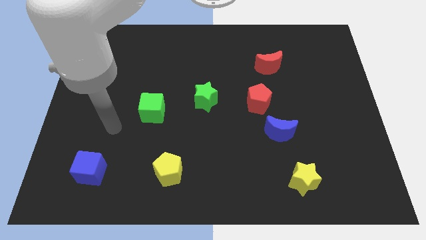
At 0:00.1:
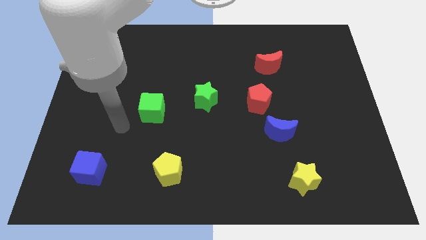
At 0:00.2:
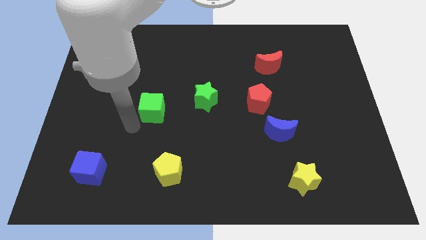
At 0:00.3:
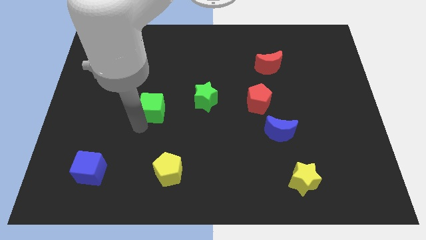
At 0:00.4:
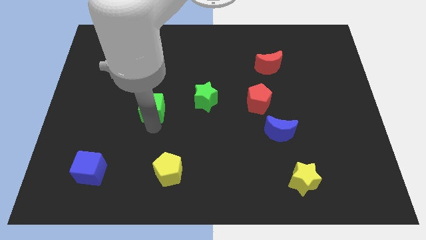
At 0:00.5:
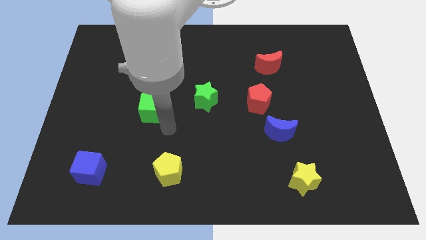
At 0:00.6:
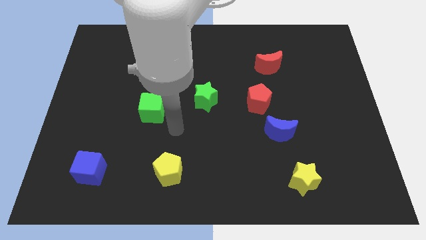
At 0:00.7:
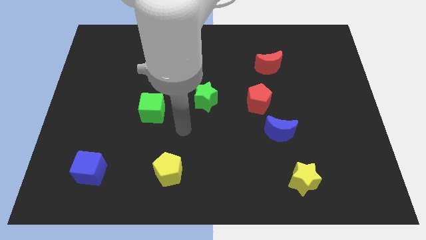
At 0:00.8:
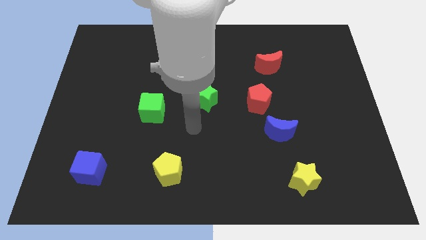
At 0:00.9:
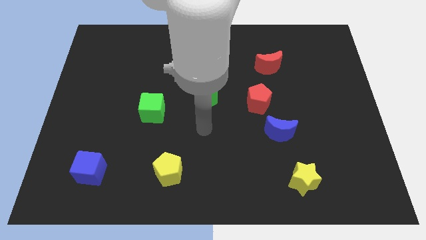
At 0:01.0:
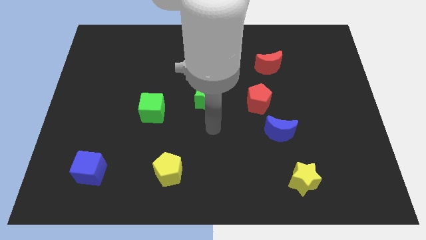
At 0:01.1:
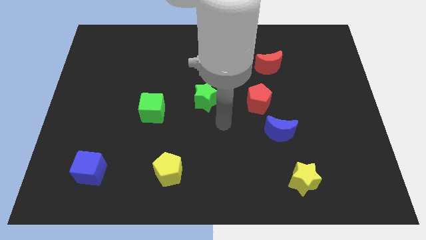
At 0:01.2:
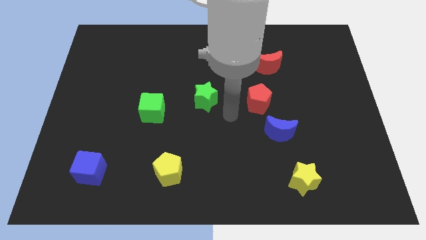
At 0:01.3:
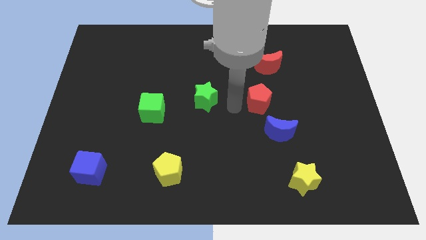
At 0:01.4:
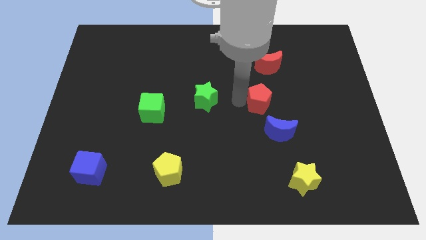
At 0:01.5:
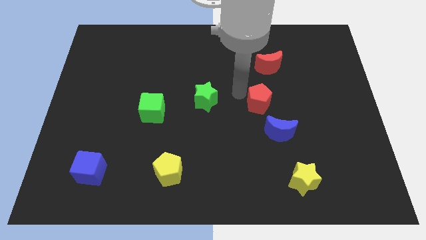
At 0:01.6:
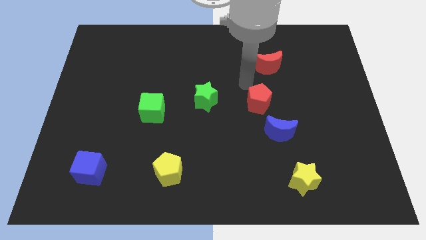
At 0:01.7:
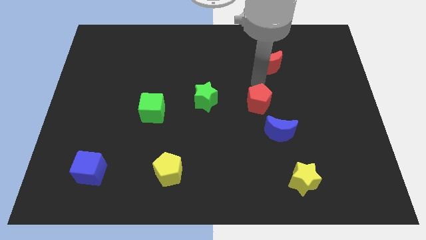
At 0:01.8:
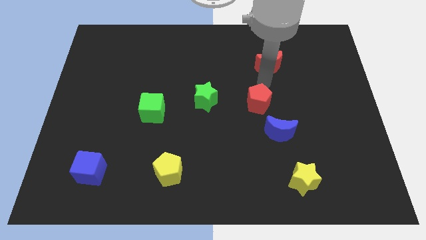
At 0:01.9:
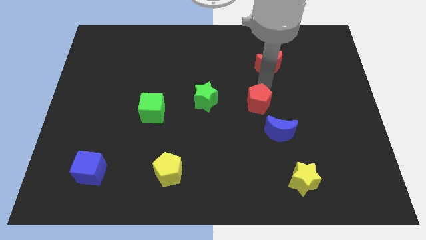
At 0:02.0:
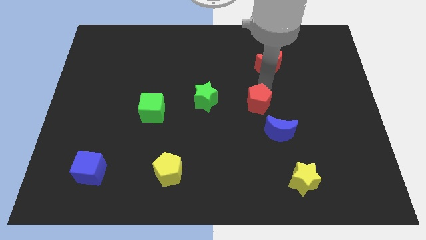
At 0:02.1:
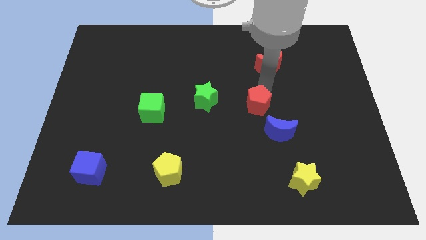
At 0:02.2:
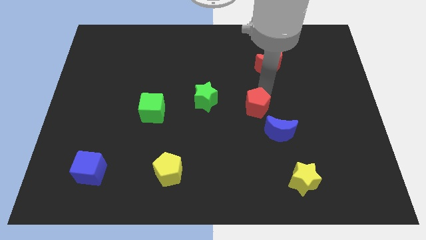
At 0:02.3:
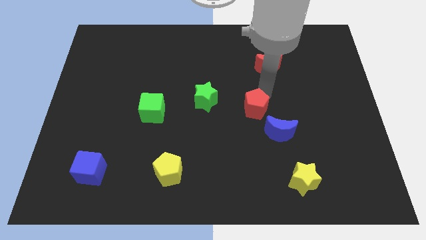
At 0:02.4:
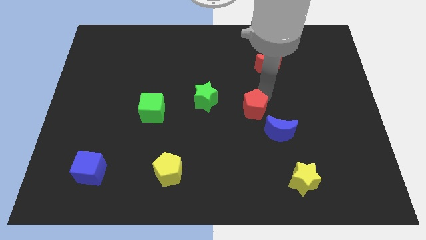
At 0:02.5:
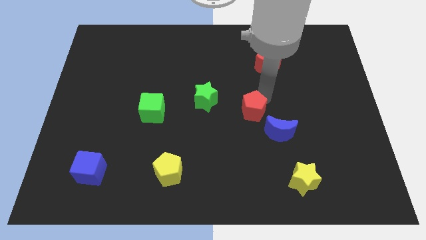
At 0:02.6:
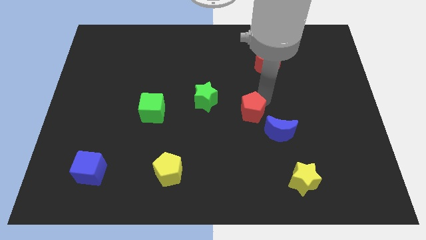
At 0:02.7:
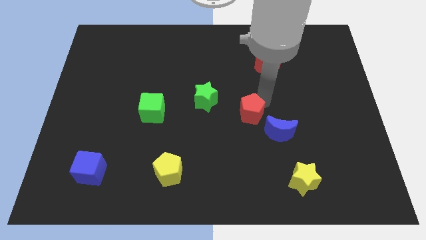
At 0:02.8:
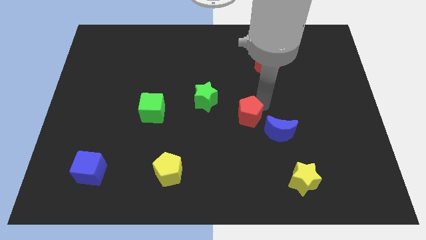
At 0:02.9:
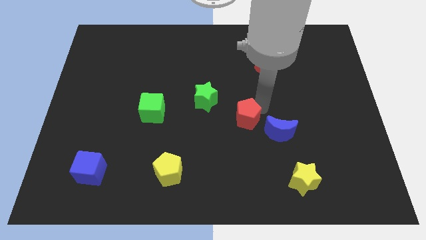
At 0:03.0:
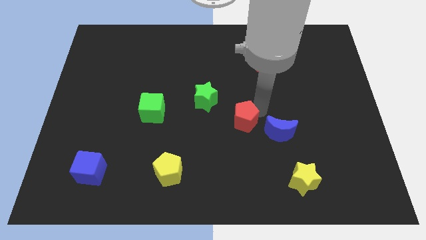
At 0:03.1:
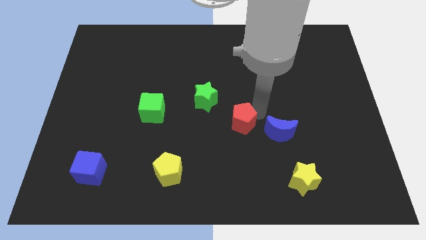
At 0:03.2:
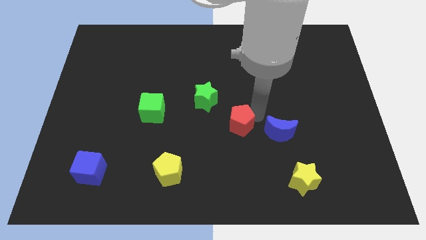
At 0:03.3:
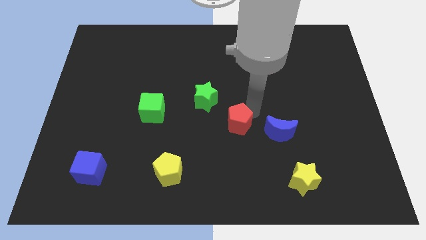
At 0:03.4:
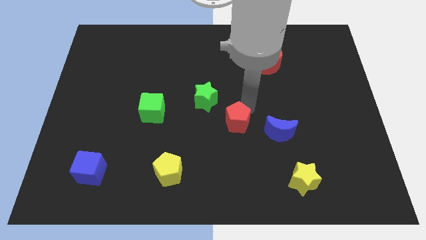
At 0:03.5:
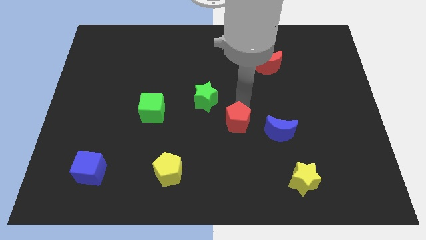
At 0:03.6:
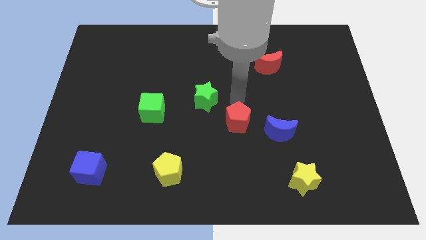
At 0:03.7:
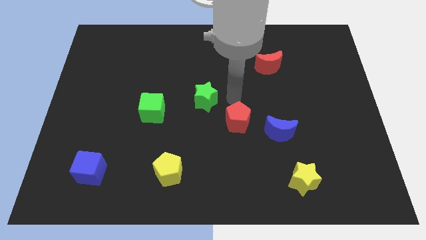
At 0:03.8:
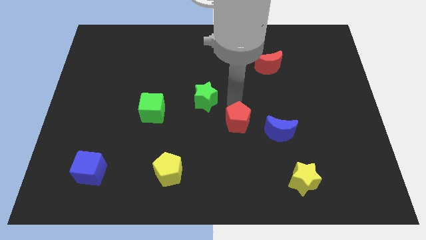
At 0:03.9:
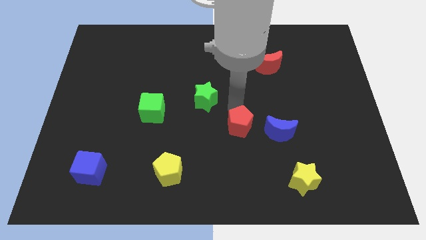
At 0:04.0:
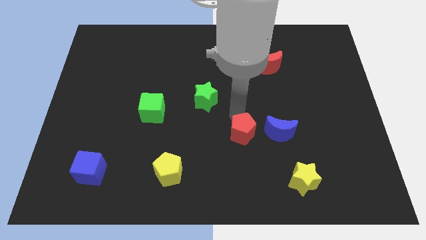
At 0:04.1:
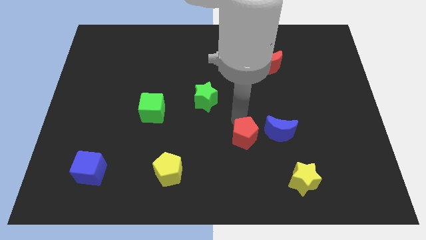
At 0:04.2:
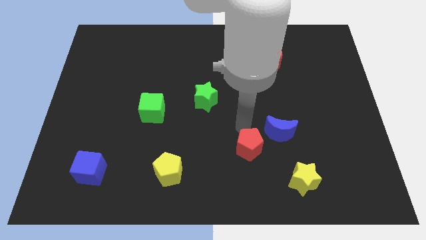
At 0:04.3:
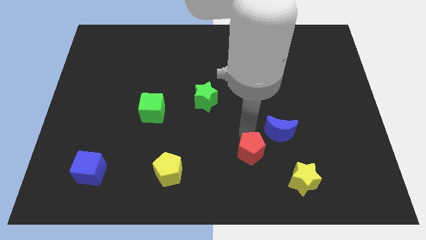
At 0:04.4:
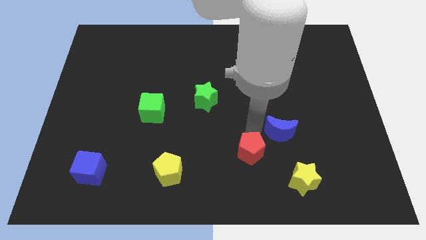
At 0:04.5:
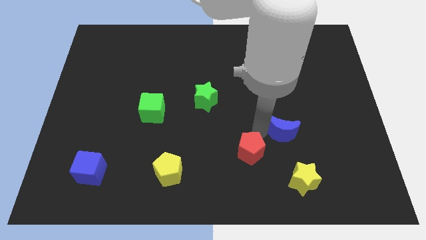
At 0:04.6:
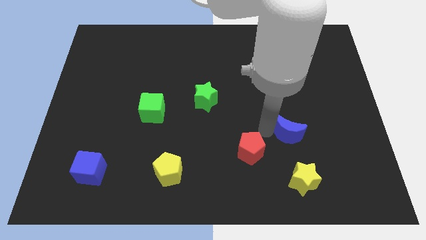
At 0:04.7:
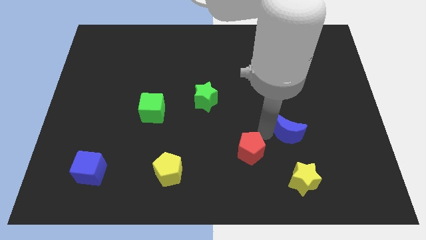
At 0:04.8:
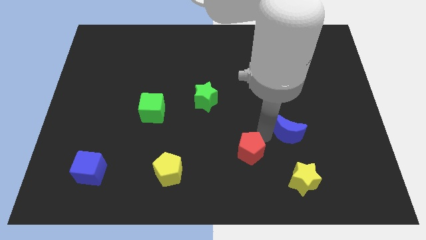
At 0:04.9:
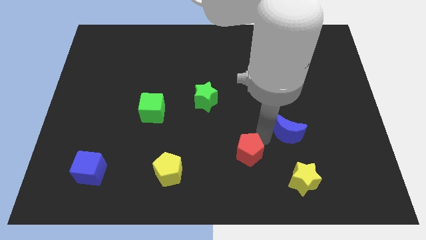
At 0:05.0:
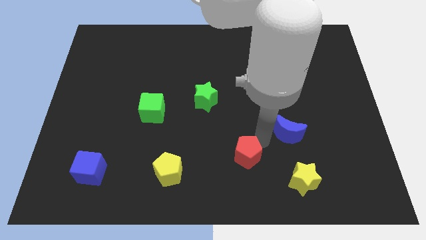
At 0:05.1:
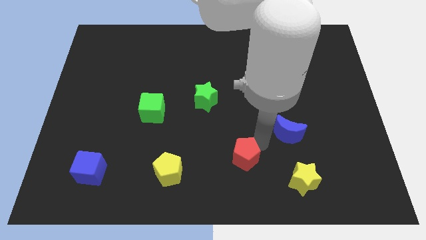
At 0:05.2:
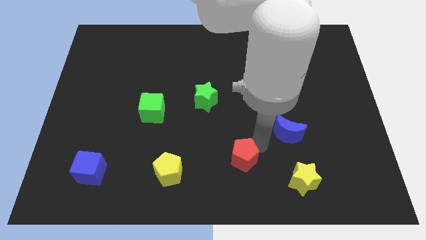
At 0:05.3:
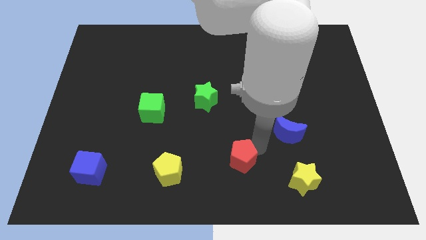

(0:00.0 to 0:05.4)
move the red pentagon to the bottom

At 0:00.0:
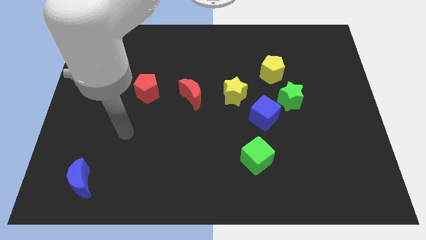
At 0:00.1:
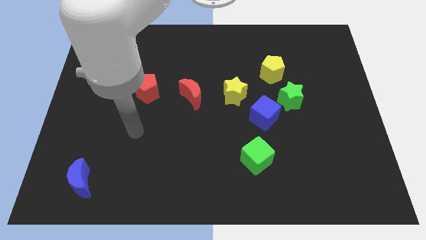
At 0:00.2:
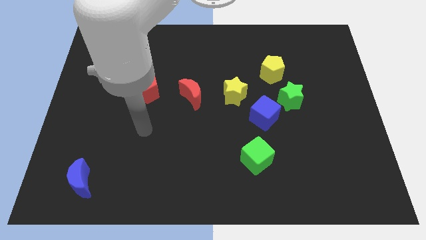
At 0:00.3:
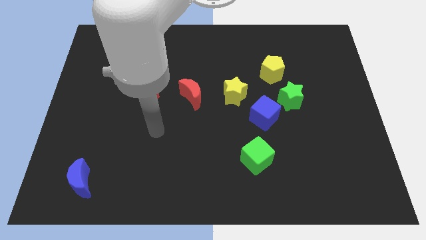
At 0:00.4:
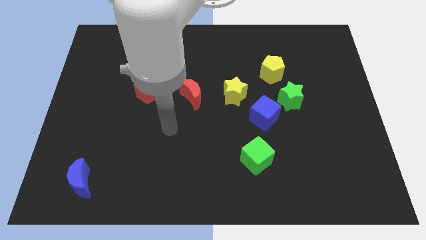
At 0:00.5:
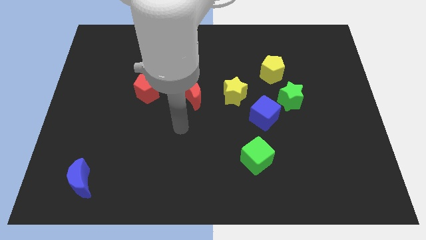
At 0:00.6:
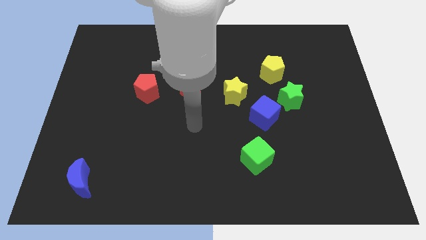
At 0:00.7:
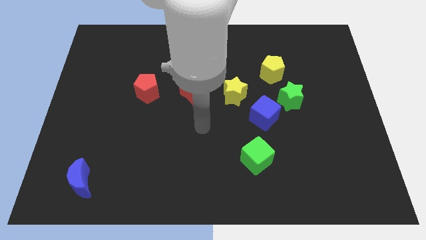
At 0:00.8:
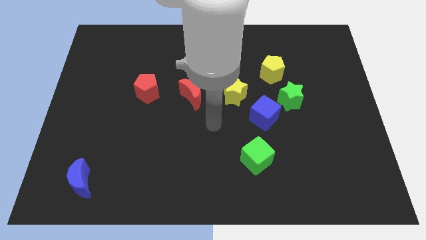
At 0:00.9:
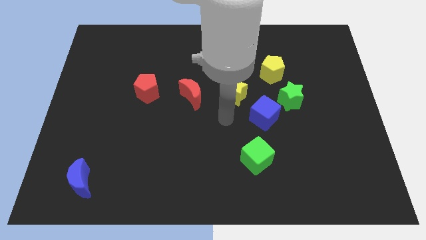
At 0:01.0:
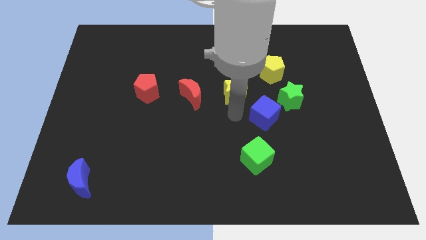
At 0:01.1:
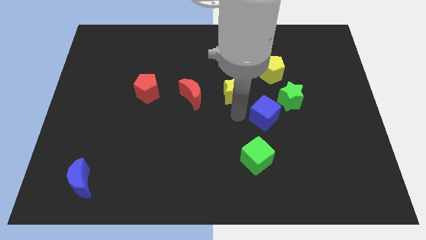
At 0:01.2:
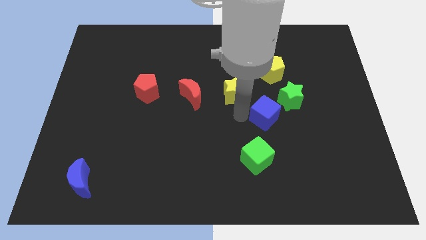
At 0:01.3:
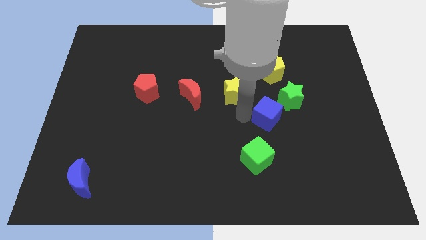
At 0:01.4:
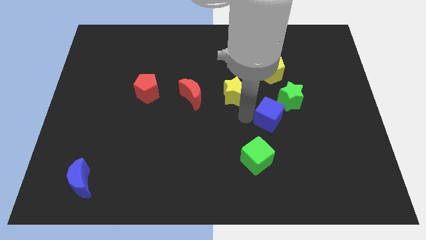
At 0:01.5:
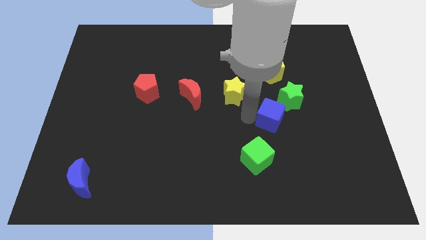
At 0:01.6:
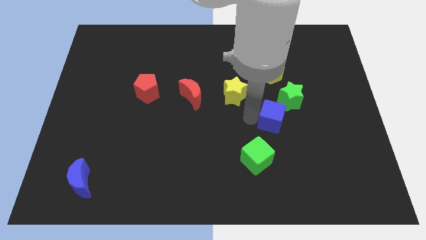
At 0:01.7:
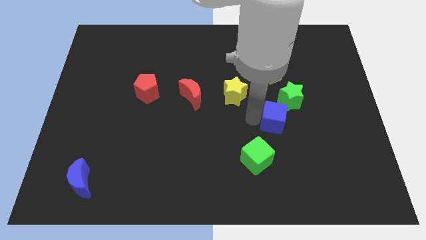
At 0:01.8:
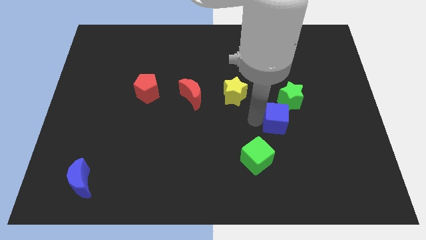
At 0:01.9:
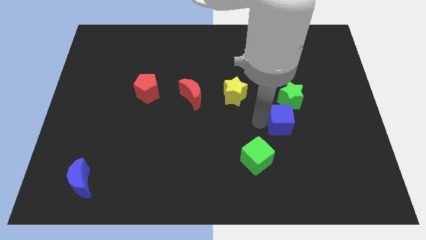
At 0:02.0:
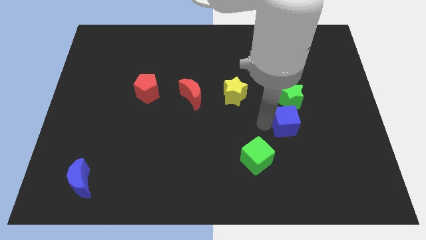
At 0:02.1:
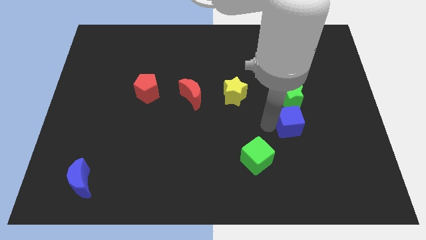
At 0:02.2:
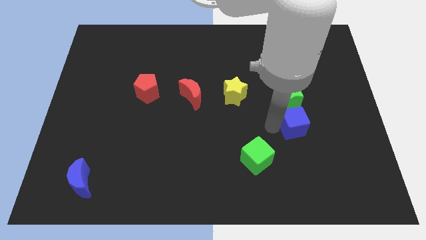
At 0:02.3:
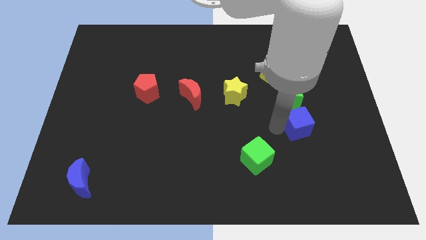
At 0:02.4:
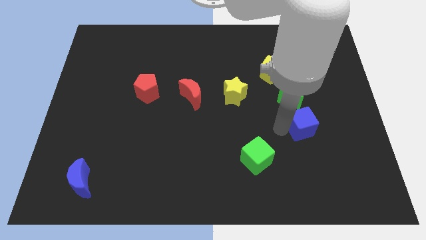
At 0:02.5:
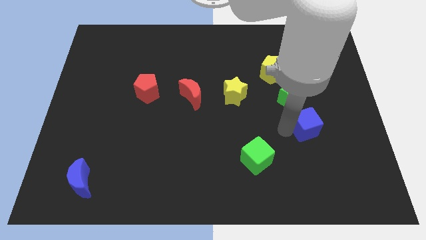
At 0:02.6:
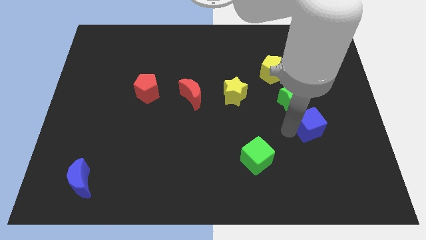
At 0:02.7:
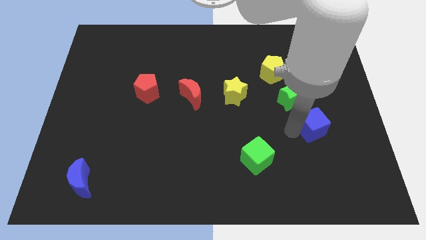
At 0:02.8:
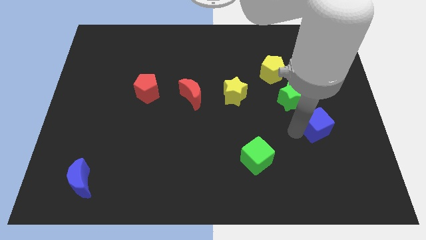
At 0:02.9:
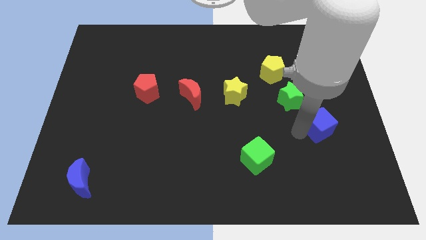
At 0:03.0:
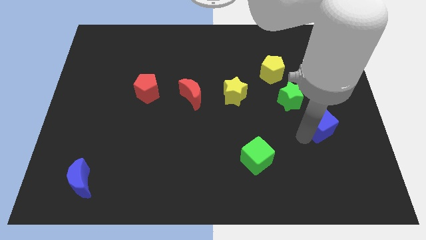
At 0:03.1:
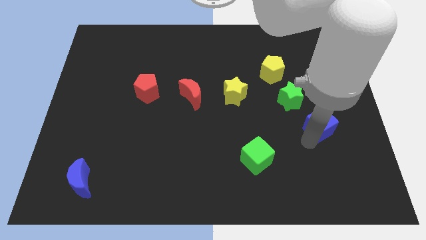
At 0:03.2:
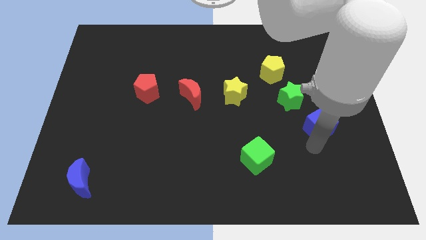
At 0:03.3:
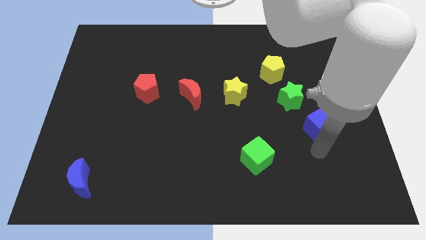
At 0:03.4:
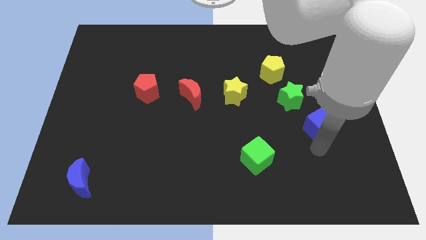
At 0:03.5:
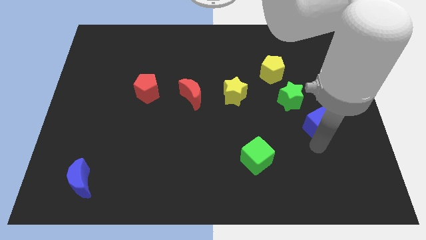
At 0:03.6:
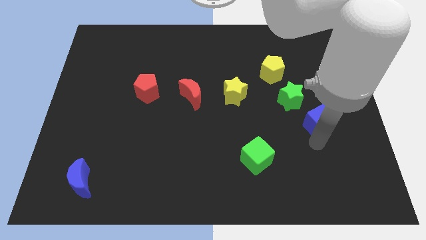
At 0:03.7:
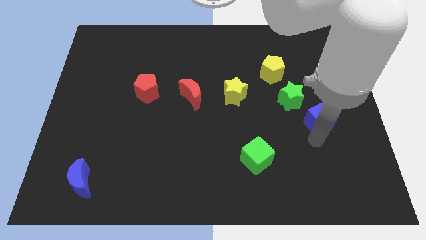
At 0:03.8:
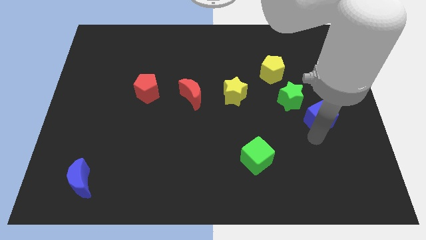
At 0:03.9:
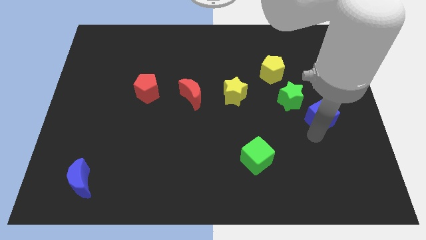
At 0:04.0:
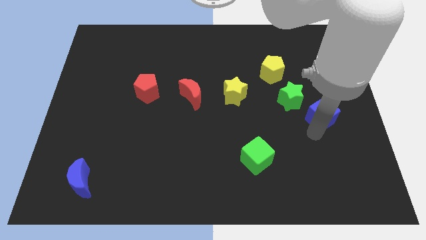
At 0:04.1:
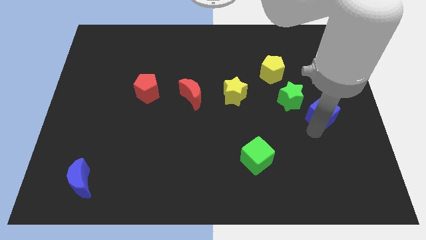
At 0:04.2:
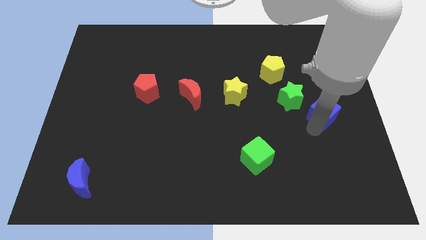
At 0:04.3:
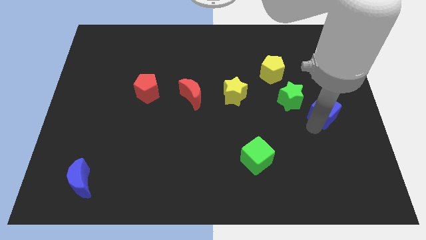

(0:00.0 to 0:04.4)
move the blue cube to the center right
